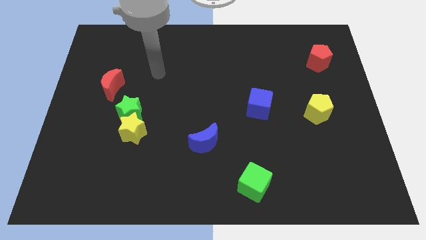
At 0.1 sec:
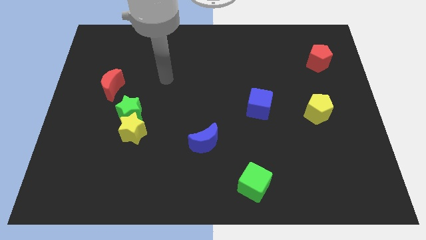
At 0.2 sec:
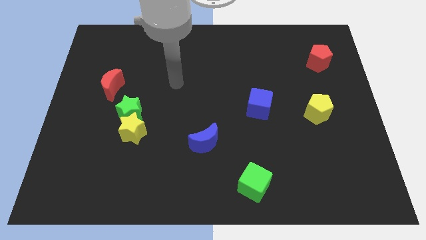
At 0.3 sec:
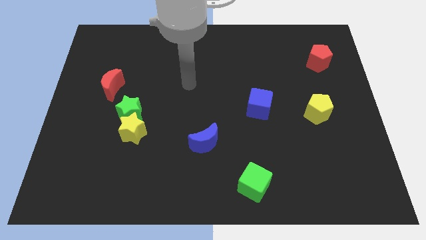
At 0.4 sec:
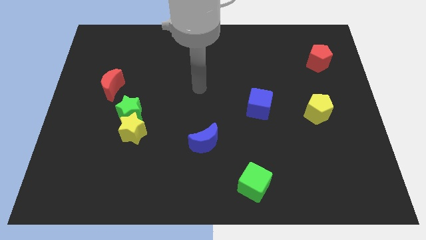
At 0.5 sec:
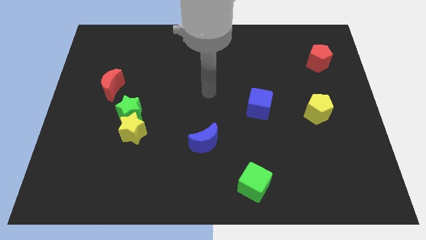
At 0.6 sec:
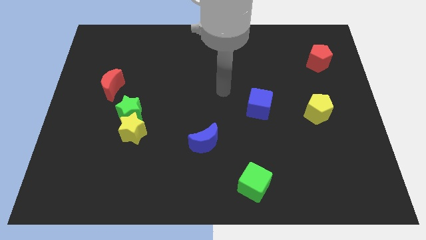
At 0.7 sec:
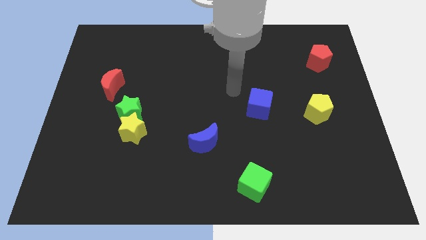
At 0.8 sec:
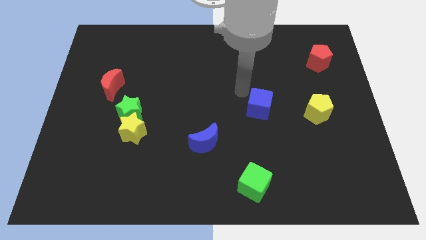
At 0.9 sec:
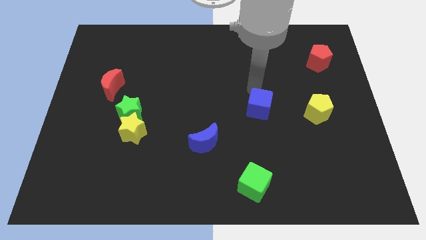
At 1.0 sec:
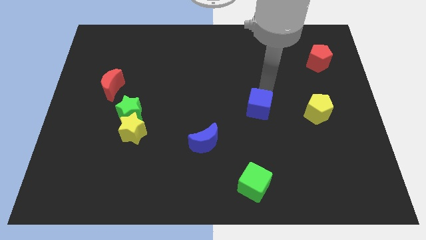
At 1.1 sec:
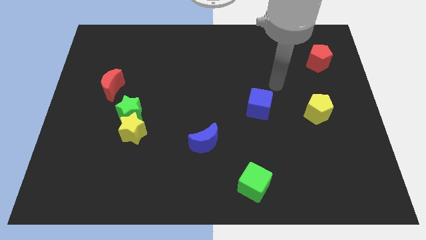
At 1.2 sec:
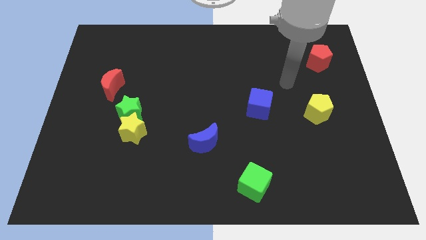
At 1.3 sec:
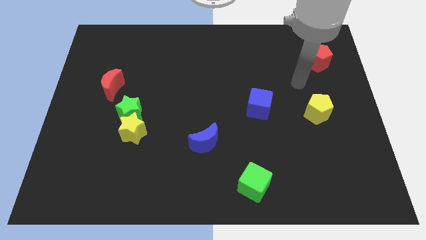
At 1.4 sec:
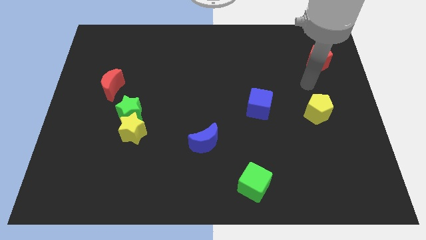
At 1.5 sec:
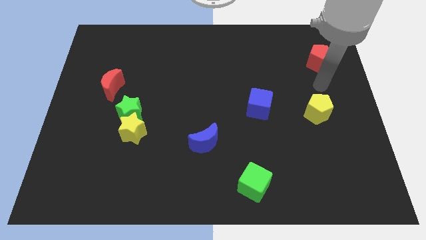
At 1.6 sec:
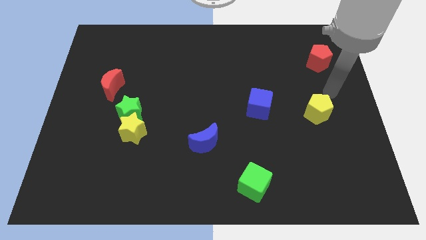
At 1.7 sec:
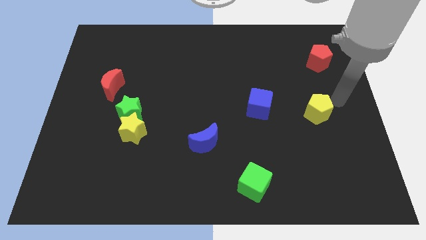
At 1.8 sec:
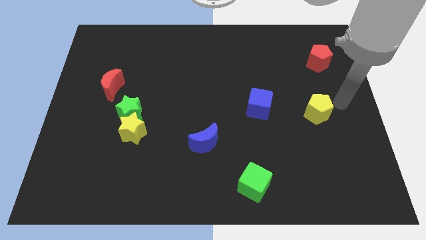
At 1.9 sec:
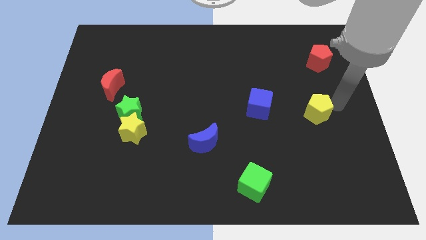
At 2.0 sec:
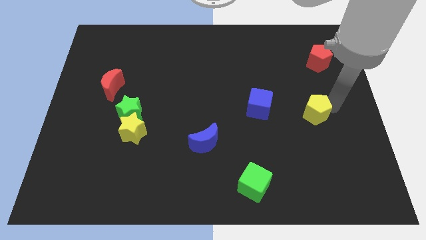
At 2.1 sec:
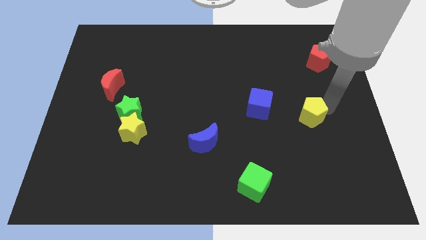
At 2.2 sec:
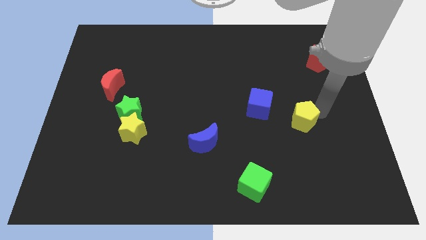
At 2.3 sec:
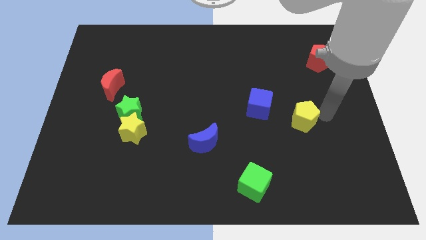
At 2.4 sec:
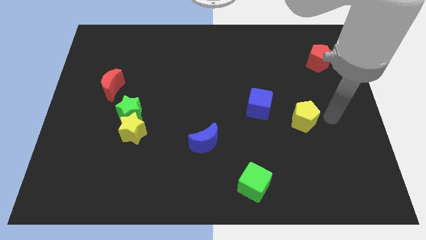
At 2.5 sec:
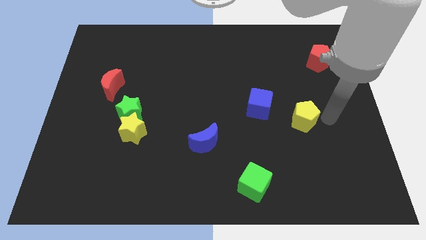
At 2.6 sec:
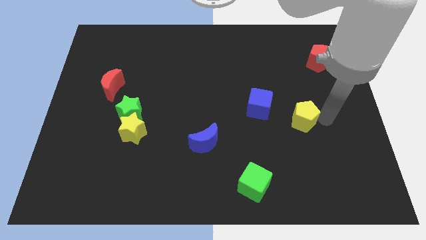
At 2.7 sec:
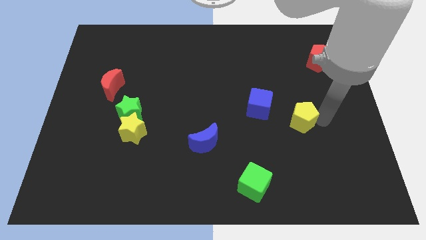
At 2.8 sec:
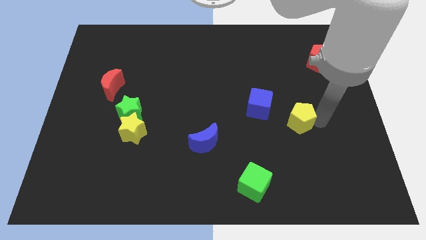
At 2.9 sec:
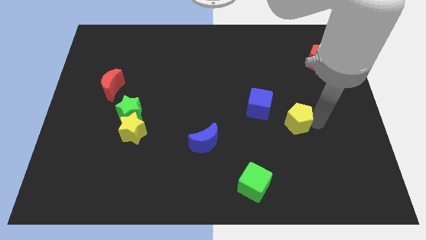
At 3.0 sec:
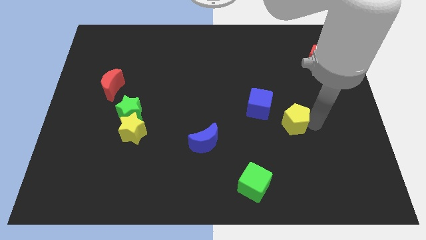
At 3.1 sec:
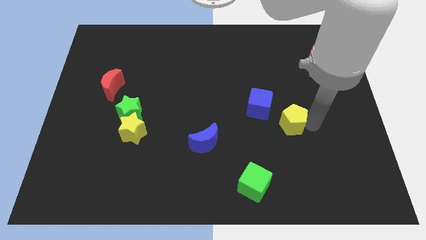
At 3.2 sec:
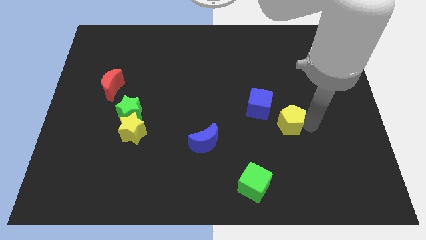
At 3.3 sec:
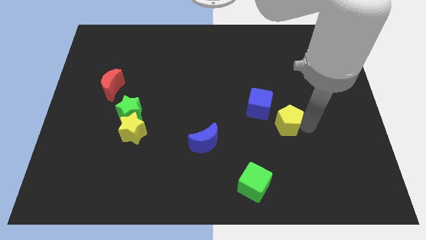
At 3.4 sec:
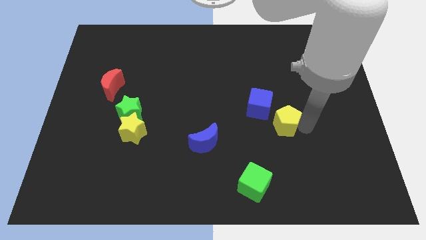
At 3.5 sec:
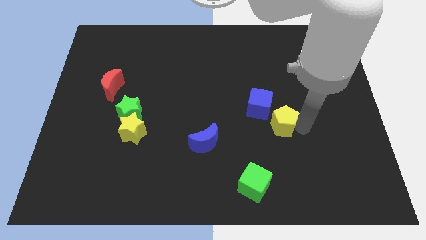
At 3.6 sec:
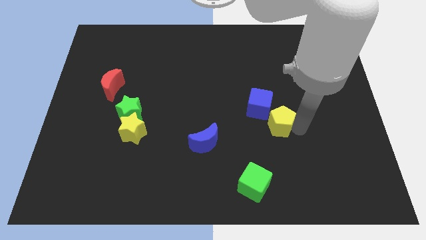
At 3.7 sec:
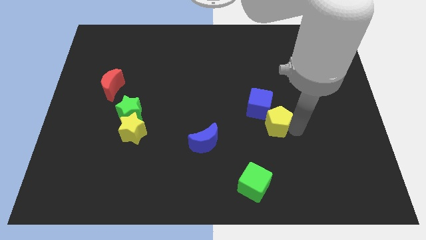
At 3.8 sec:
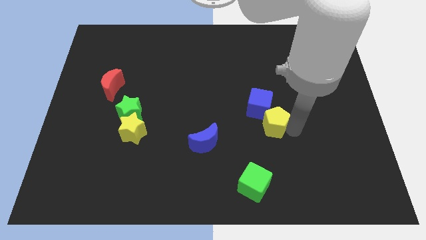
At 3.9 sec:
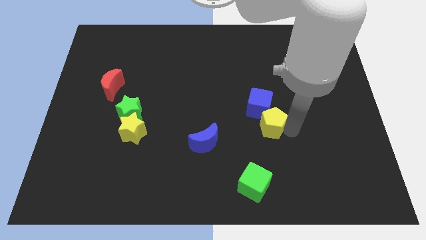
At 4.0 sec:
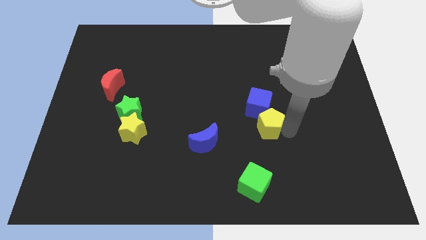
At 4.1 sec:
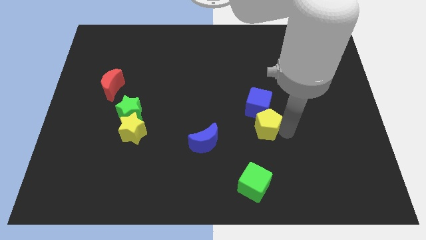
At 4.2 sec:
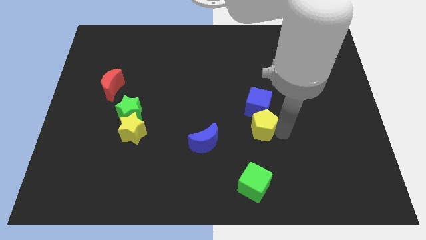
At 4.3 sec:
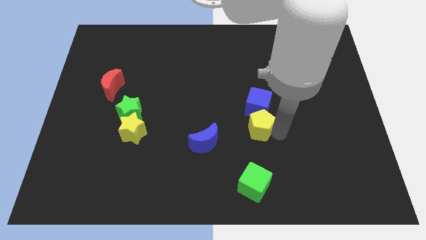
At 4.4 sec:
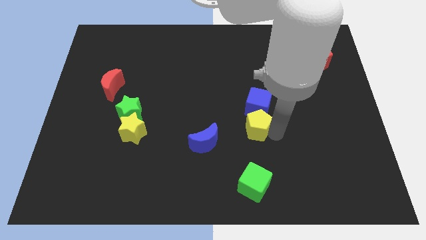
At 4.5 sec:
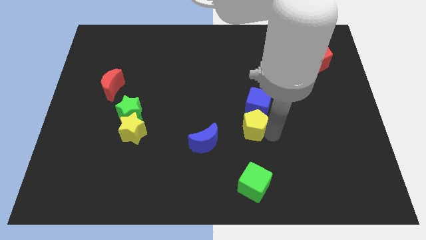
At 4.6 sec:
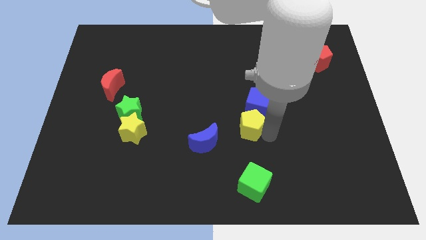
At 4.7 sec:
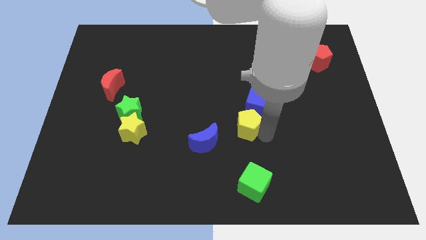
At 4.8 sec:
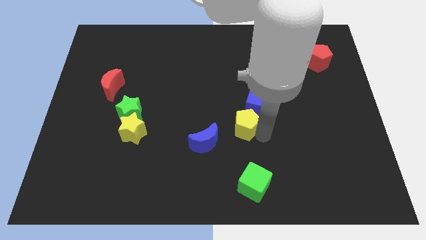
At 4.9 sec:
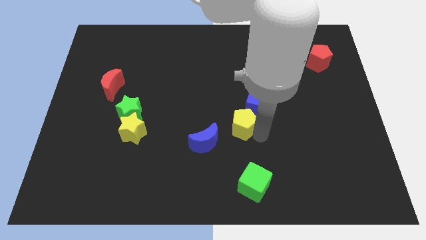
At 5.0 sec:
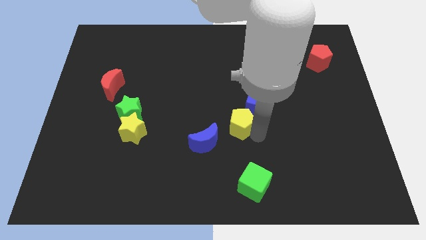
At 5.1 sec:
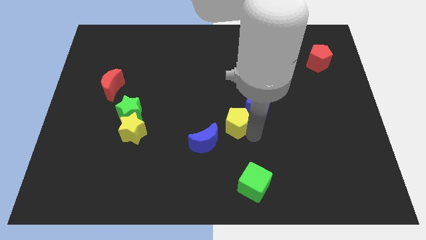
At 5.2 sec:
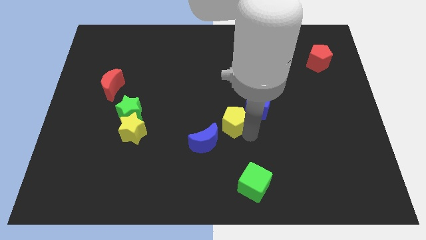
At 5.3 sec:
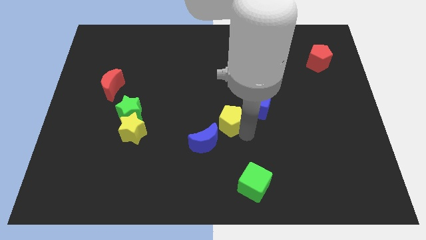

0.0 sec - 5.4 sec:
slide the yellow pentagon left of the blue cube

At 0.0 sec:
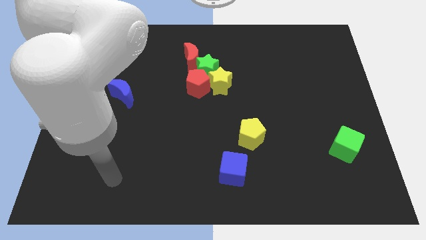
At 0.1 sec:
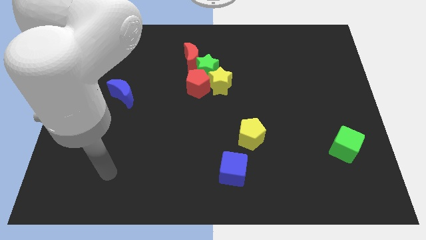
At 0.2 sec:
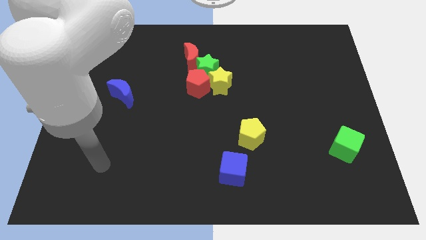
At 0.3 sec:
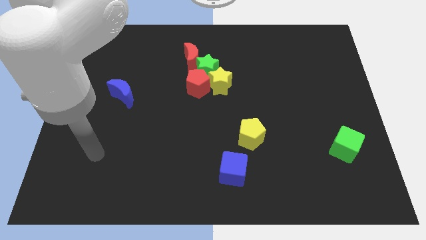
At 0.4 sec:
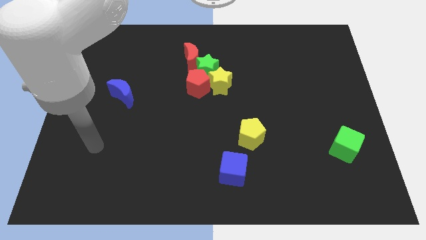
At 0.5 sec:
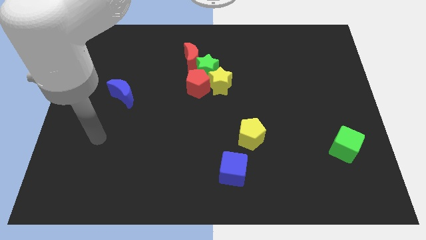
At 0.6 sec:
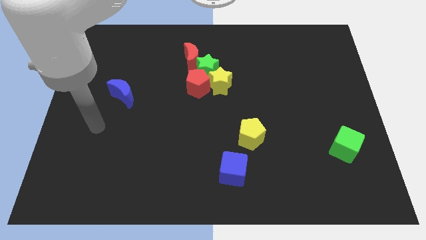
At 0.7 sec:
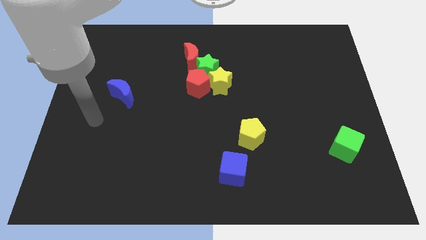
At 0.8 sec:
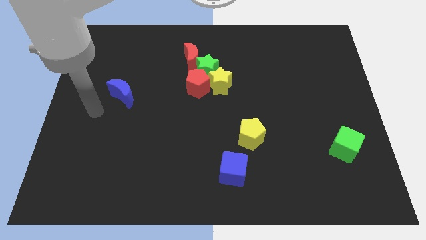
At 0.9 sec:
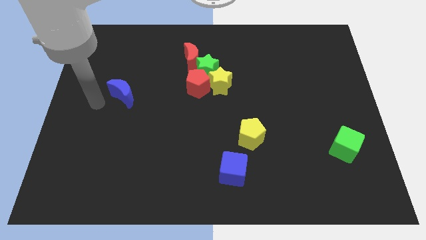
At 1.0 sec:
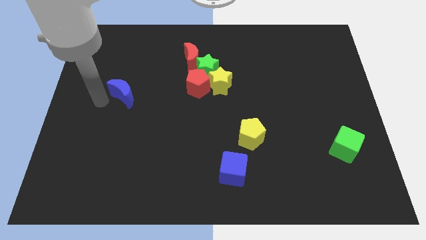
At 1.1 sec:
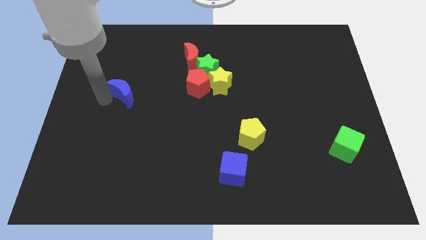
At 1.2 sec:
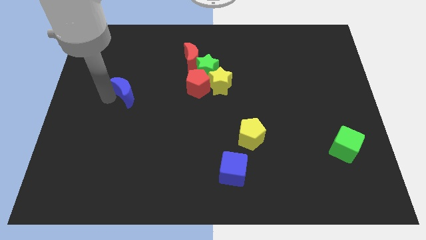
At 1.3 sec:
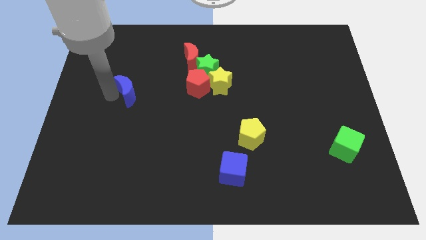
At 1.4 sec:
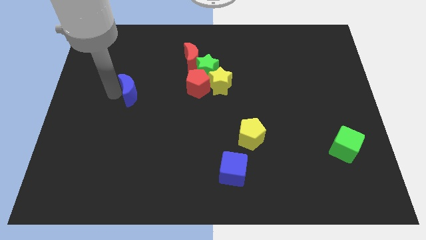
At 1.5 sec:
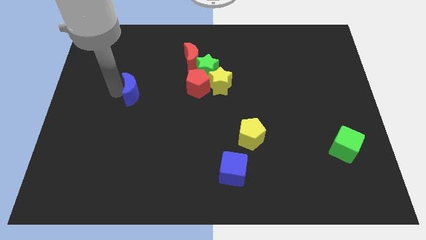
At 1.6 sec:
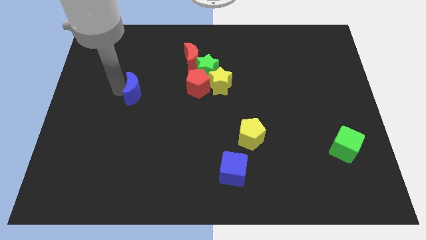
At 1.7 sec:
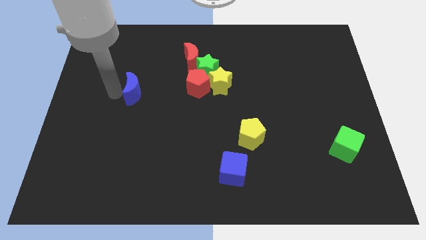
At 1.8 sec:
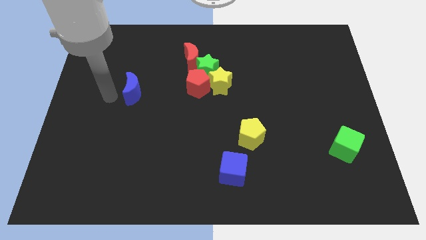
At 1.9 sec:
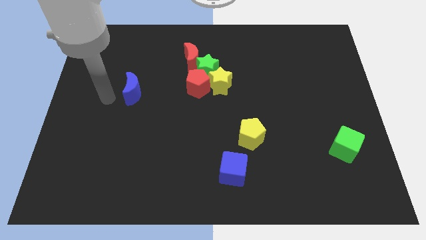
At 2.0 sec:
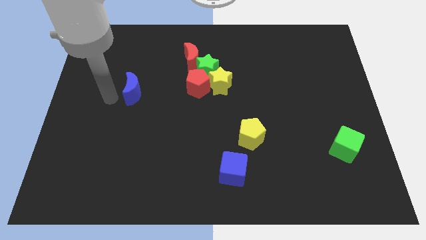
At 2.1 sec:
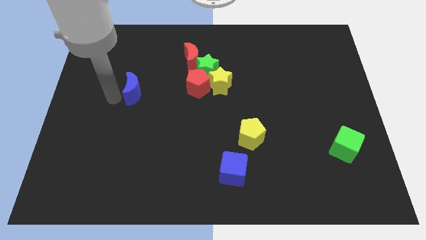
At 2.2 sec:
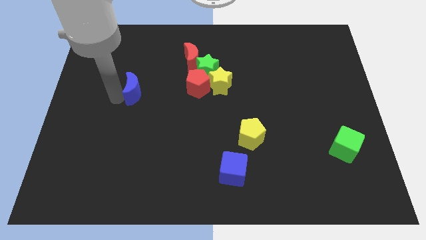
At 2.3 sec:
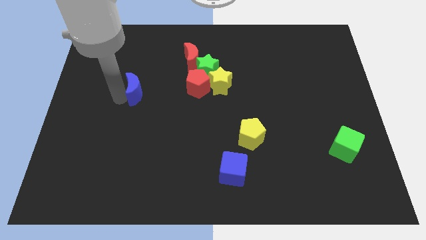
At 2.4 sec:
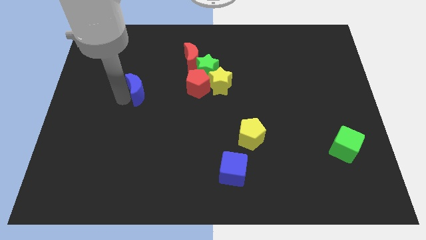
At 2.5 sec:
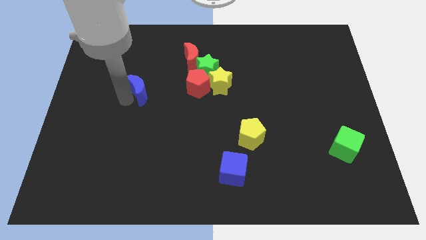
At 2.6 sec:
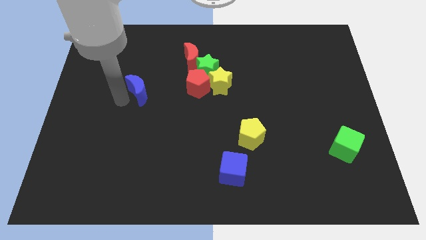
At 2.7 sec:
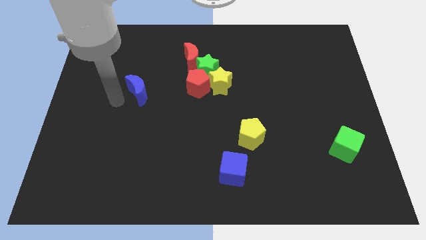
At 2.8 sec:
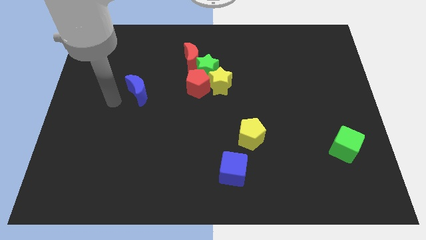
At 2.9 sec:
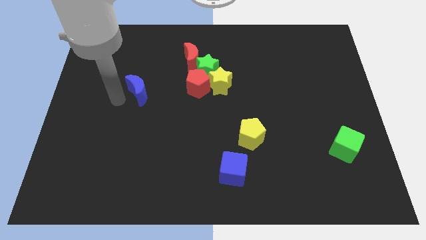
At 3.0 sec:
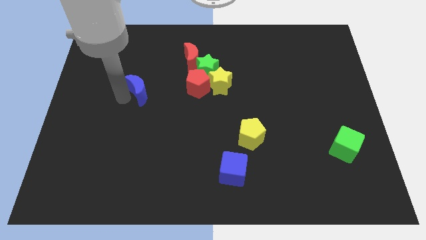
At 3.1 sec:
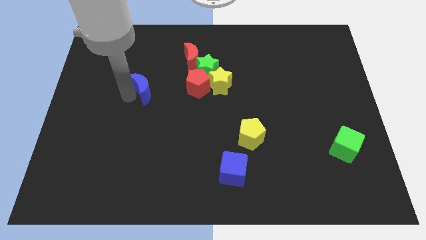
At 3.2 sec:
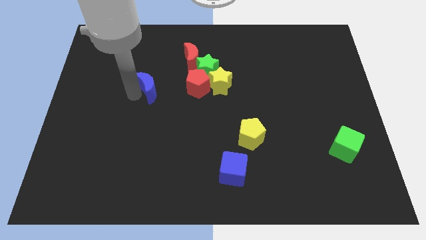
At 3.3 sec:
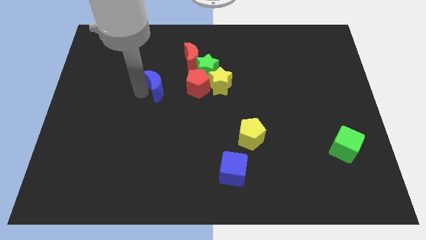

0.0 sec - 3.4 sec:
slide the blue moon to the left side of the yellow star
